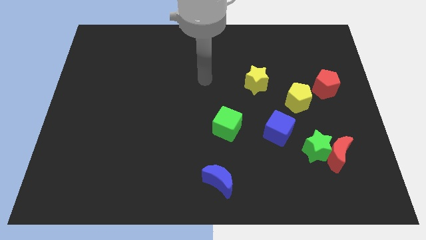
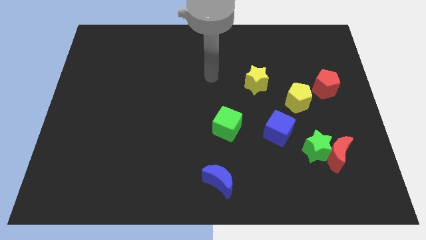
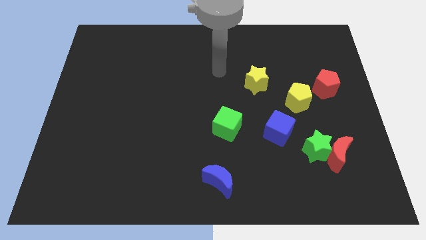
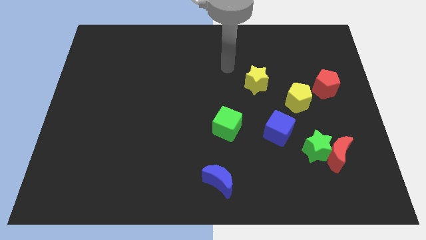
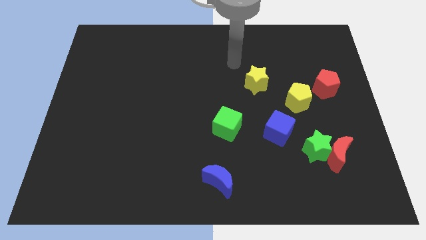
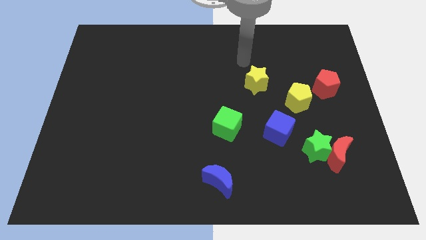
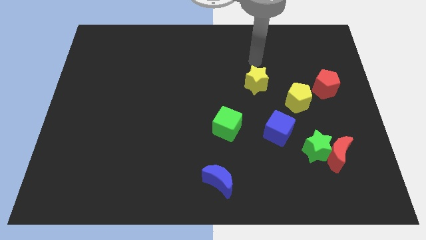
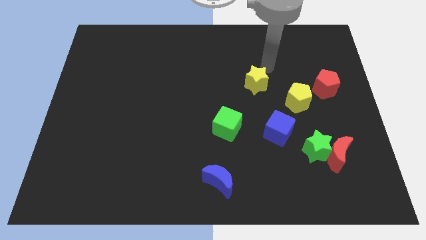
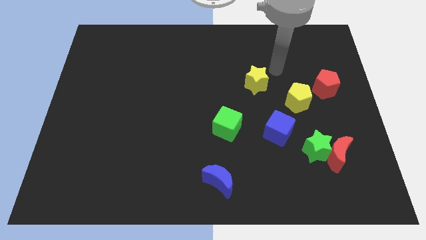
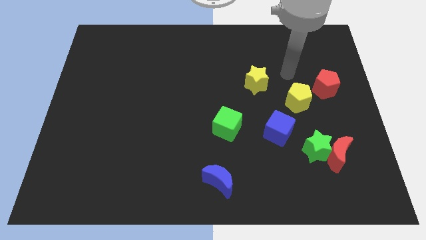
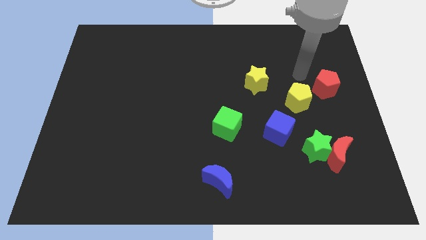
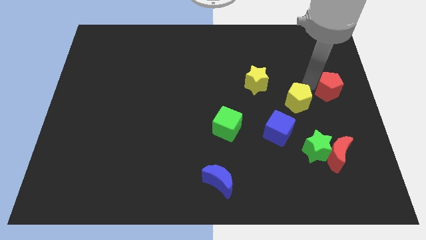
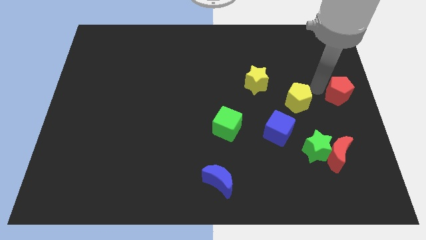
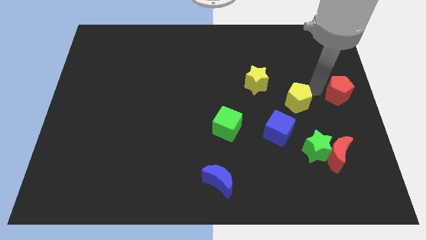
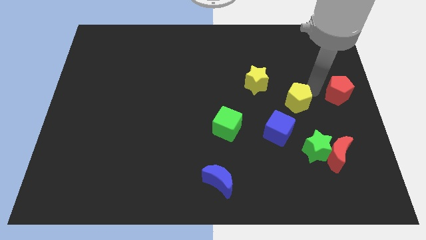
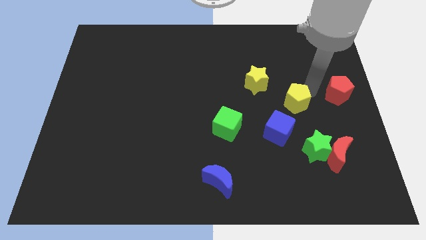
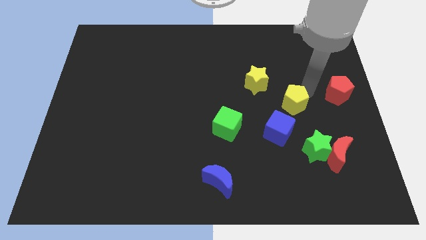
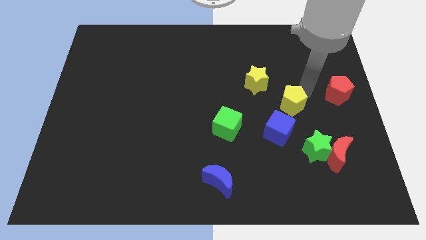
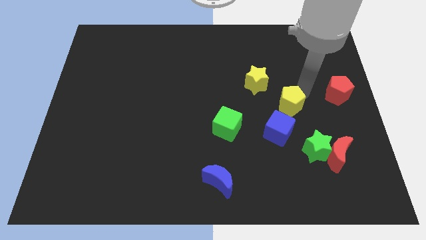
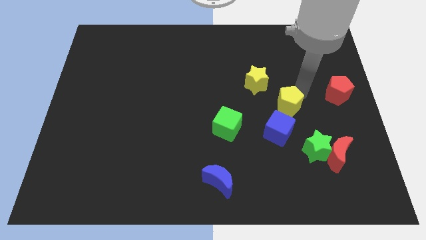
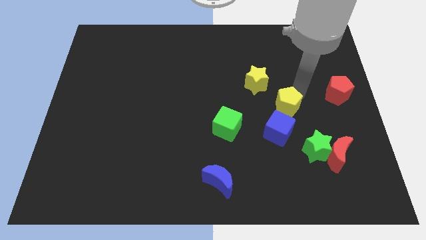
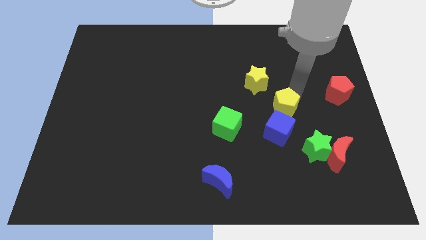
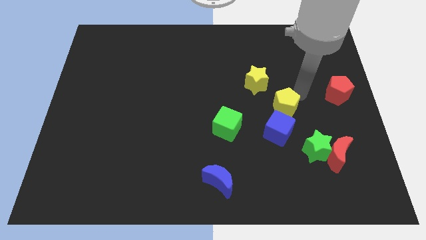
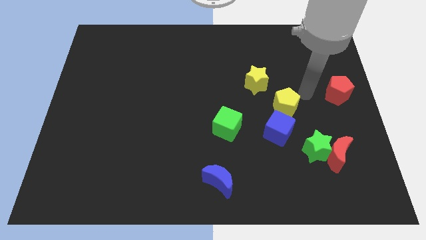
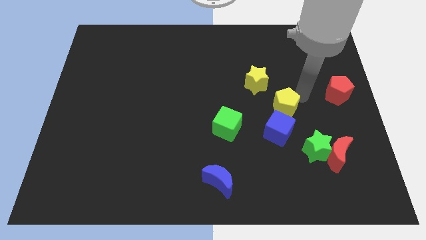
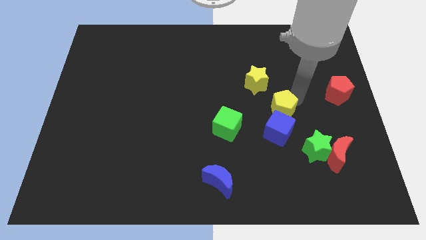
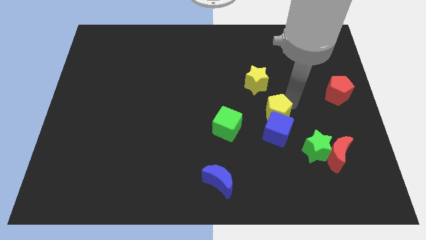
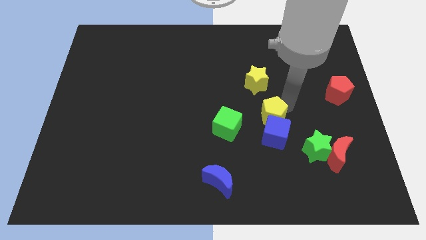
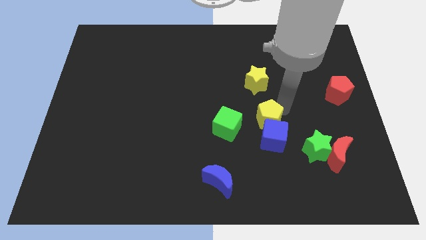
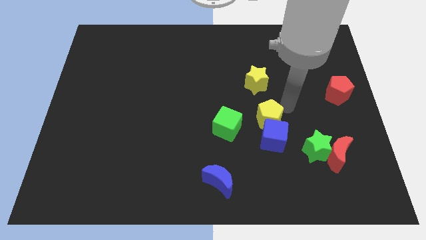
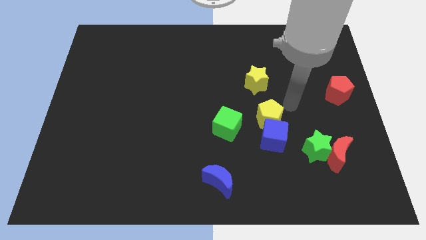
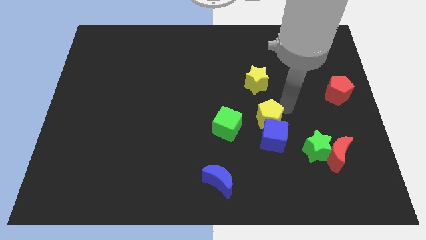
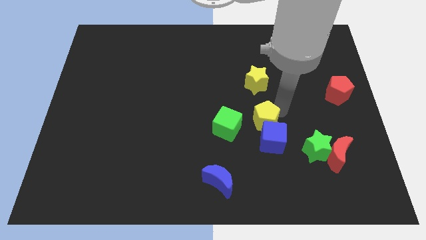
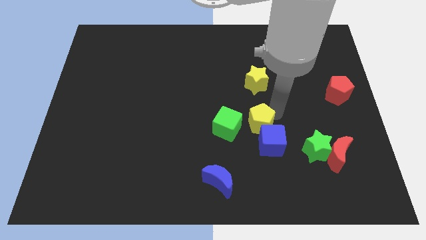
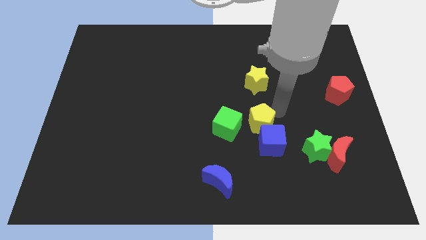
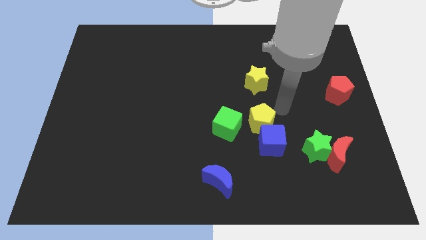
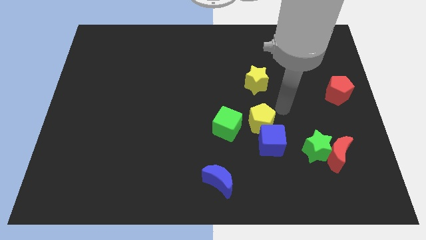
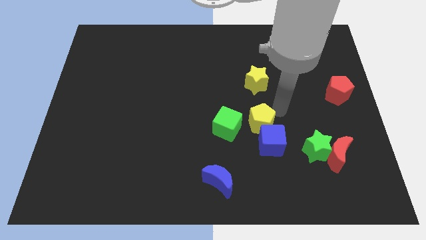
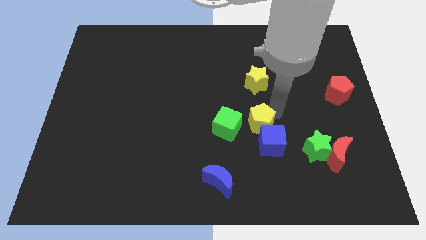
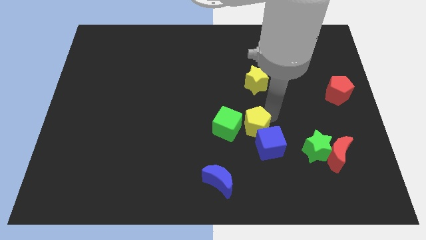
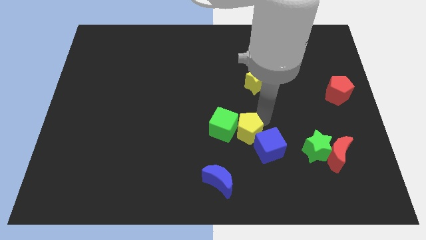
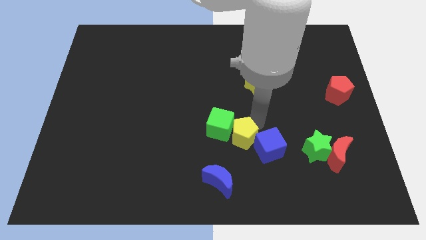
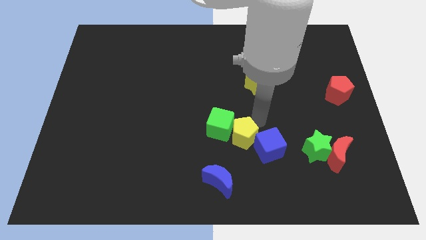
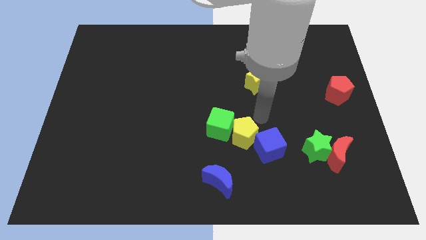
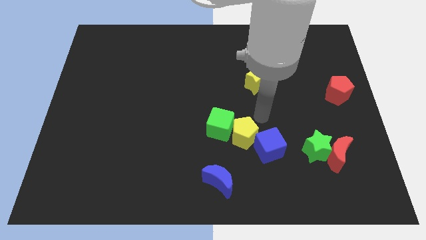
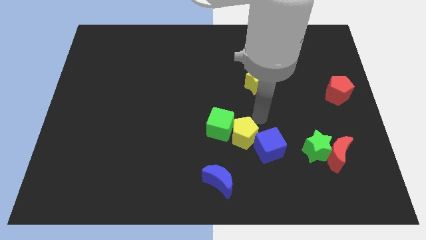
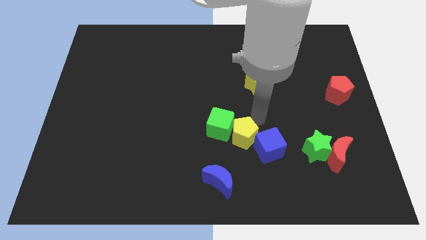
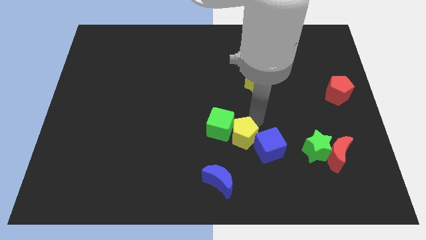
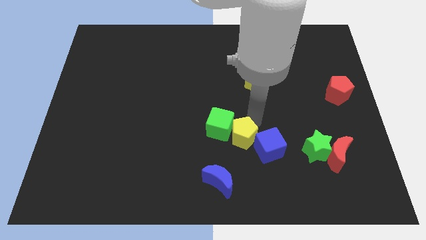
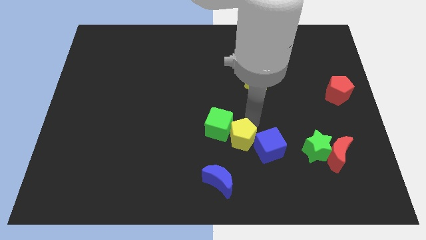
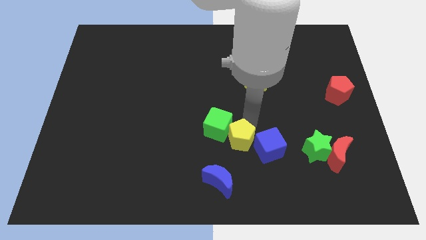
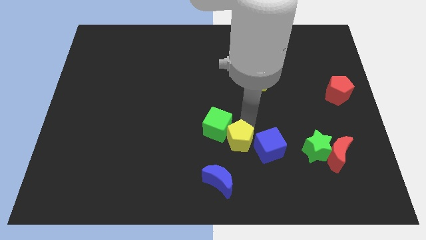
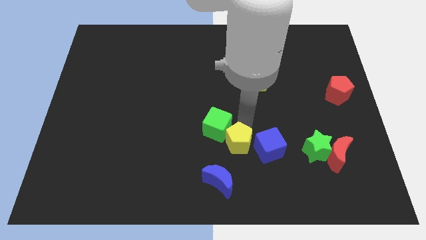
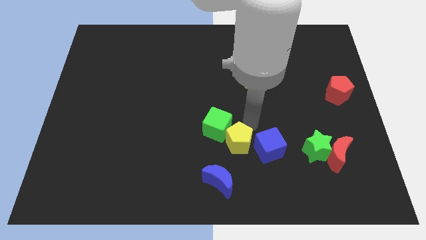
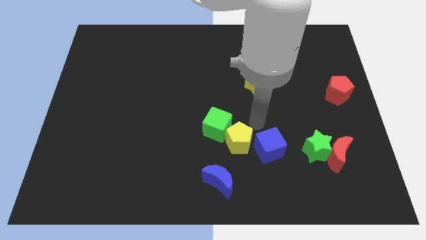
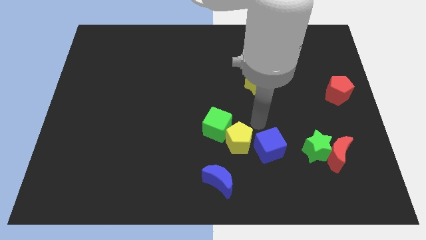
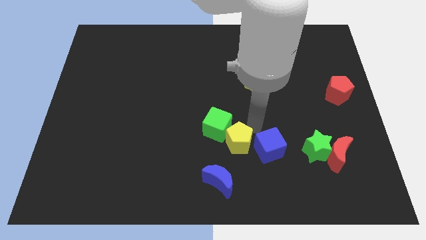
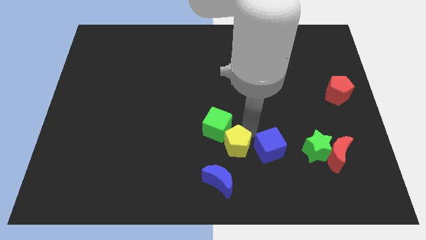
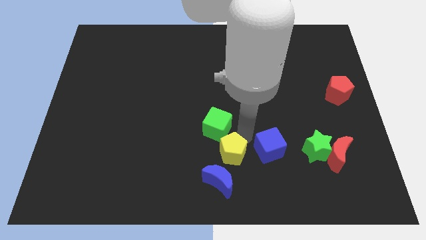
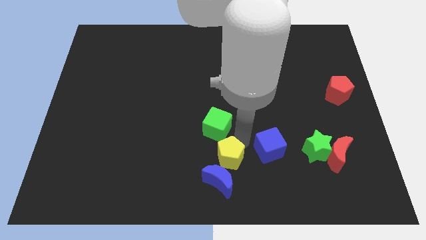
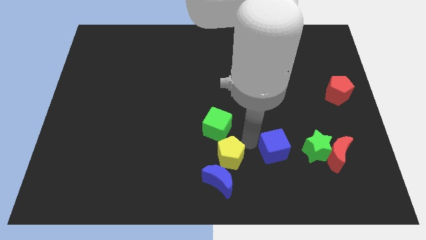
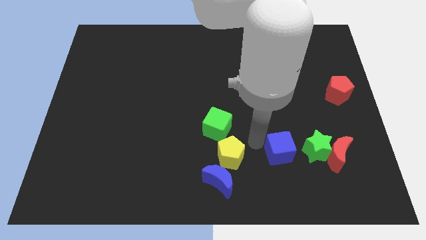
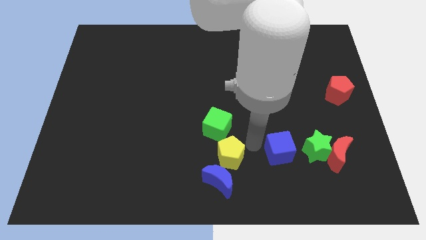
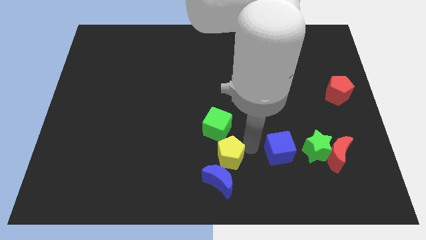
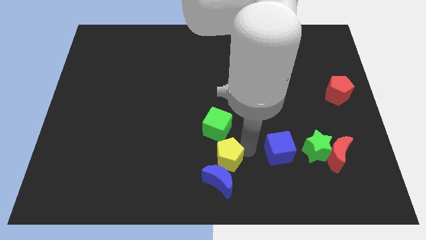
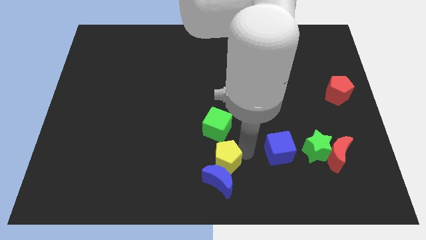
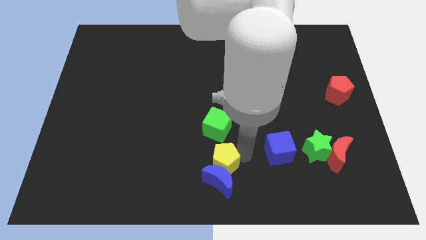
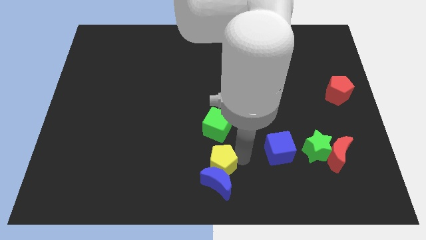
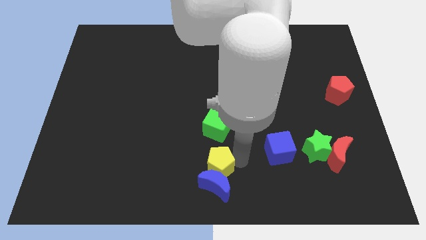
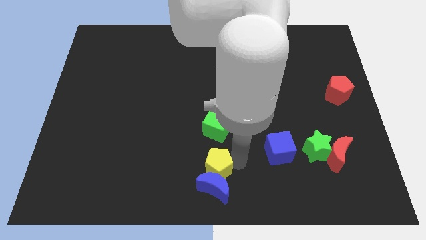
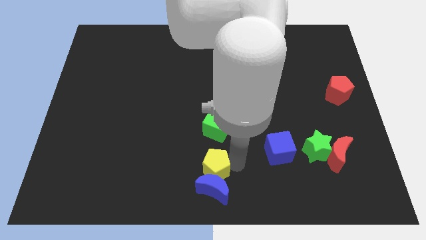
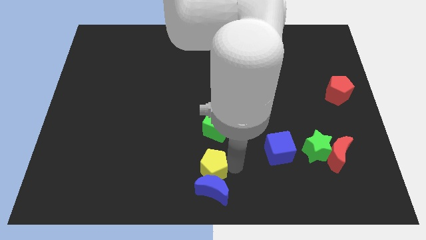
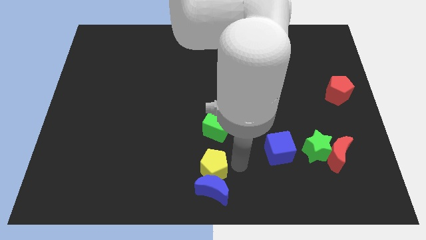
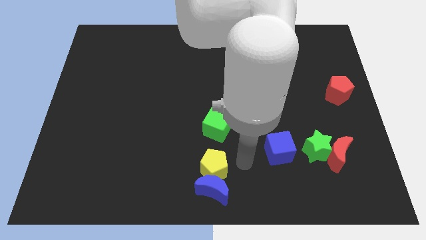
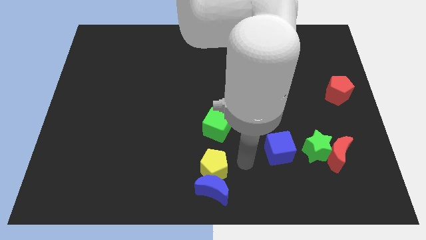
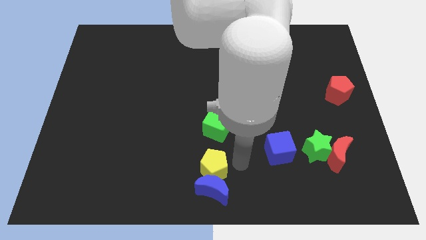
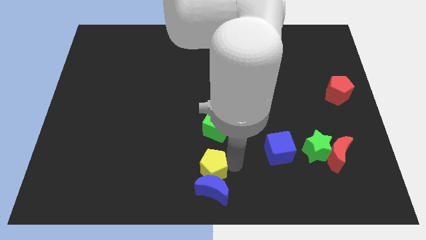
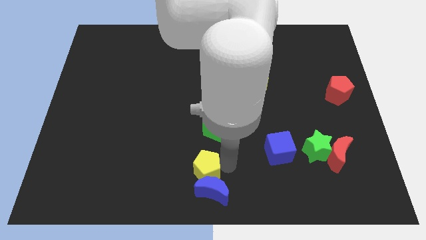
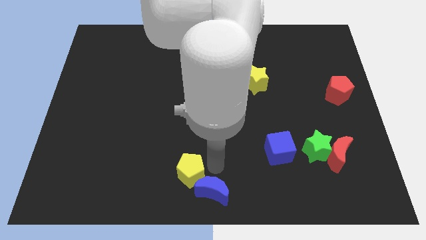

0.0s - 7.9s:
push the yellow pentagon to the left side of the blue moon
